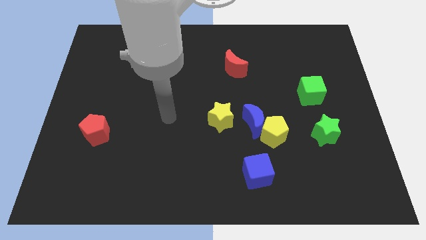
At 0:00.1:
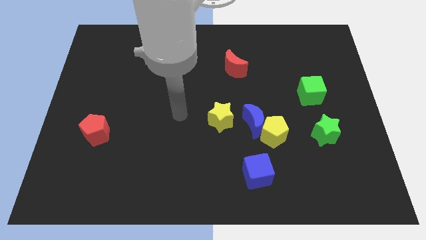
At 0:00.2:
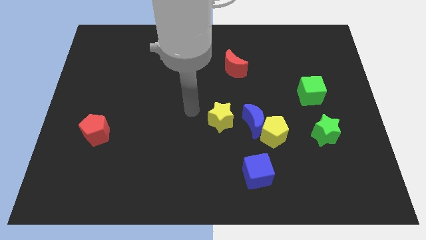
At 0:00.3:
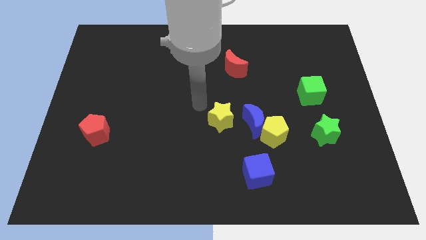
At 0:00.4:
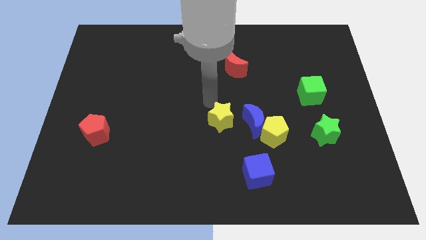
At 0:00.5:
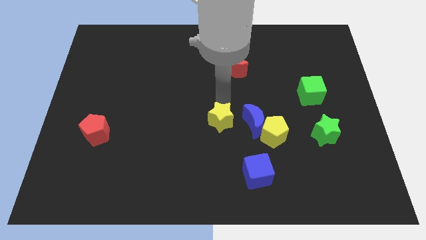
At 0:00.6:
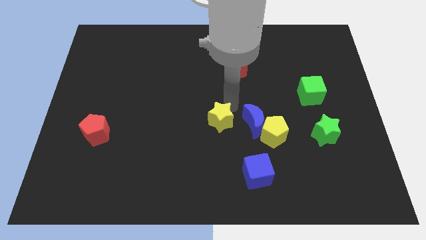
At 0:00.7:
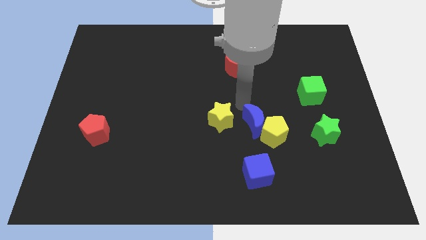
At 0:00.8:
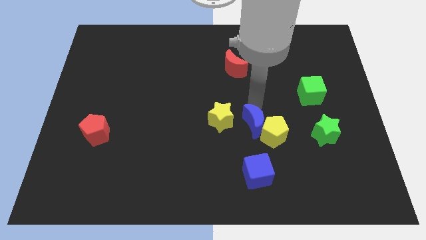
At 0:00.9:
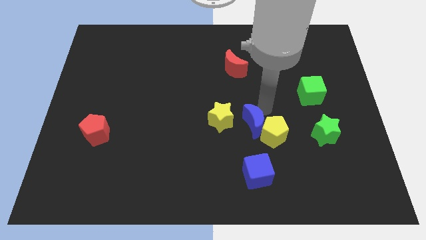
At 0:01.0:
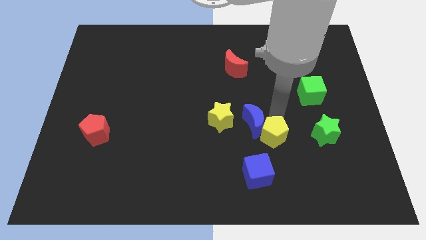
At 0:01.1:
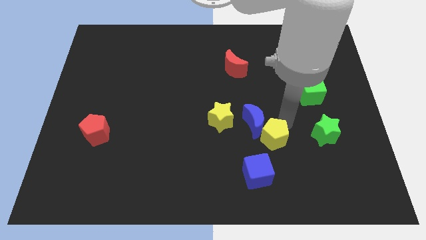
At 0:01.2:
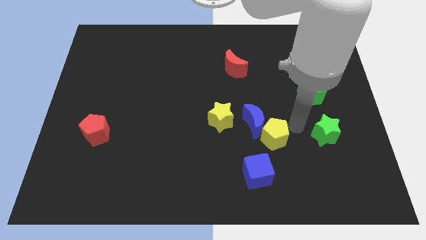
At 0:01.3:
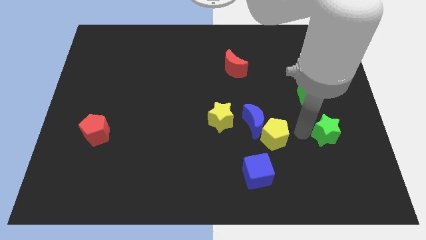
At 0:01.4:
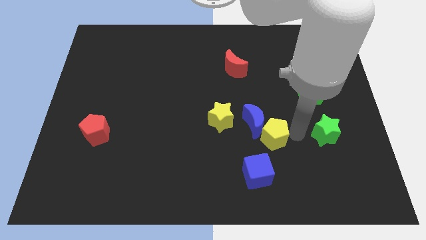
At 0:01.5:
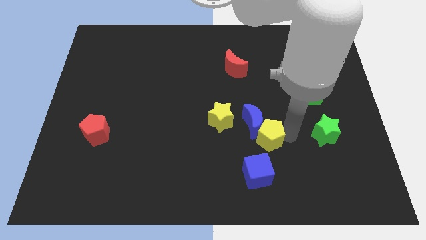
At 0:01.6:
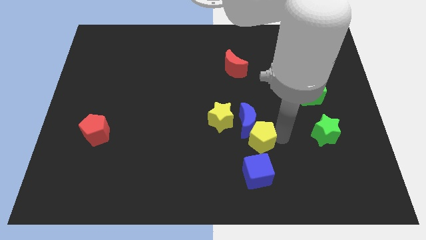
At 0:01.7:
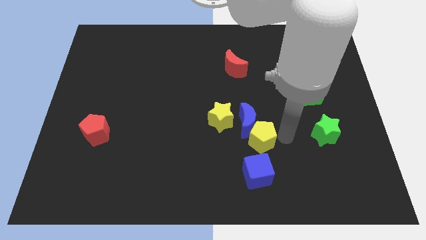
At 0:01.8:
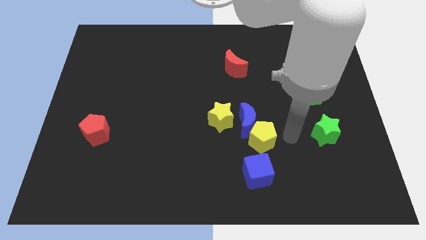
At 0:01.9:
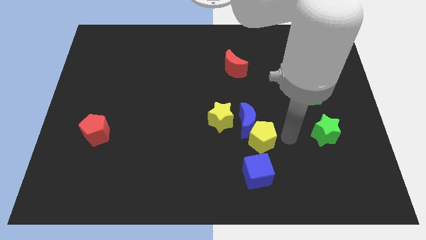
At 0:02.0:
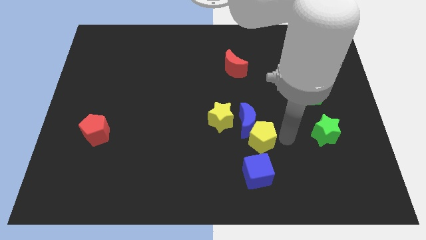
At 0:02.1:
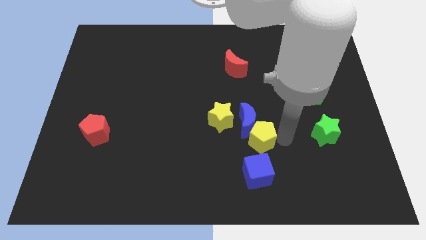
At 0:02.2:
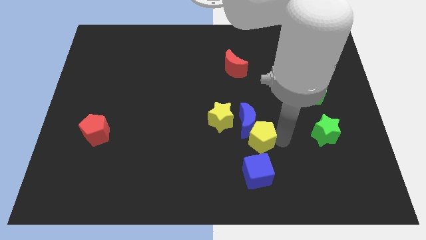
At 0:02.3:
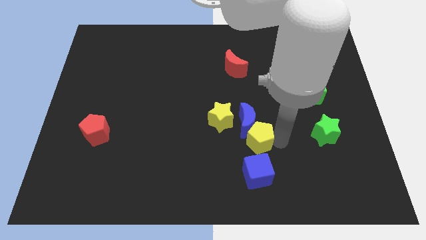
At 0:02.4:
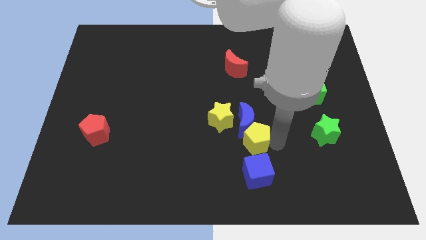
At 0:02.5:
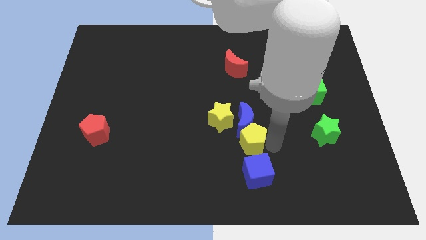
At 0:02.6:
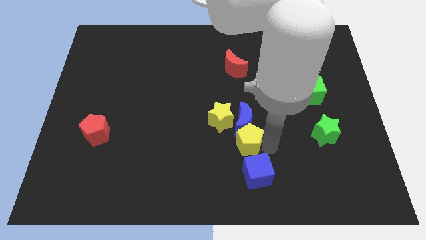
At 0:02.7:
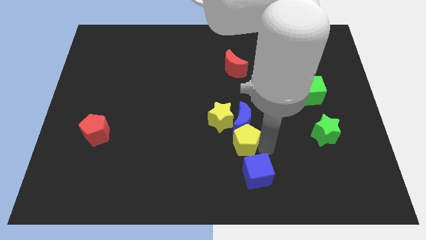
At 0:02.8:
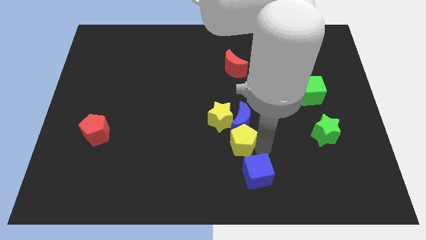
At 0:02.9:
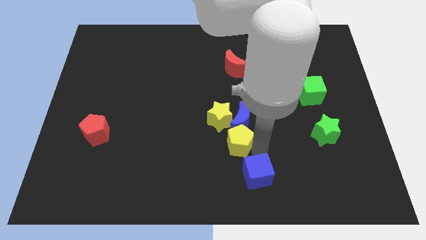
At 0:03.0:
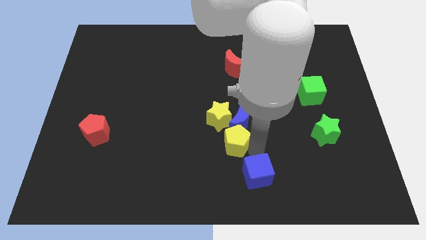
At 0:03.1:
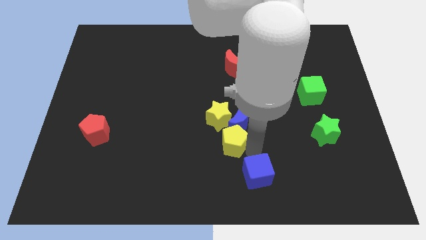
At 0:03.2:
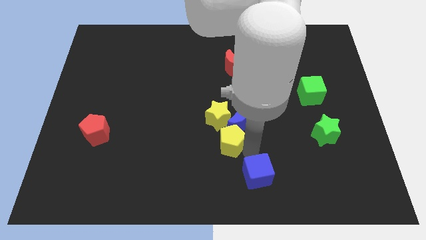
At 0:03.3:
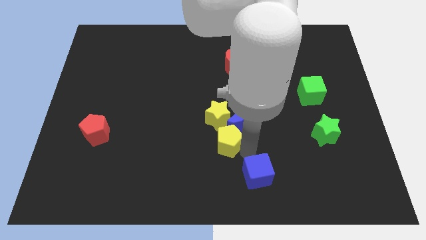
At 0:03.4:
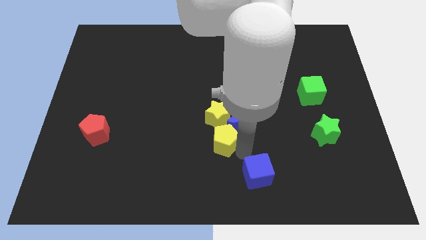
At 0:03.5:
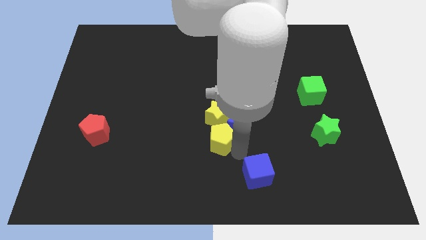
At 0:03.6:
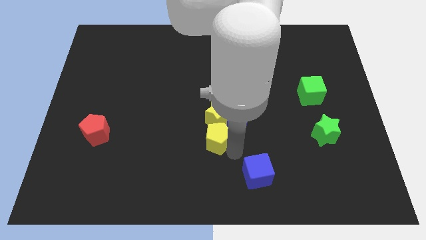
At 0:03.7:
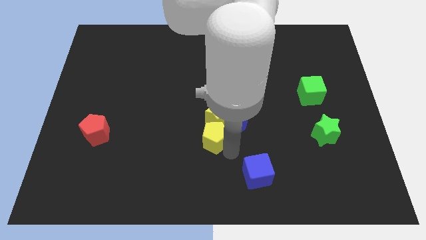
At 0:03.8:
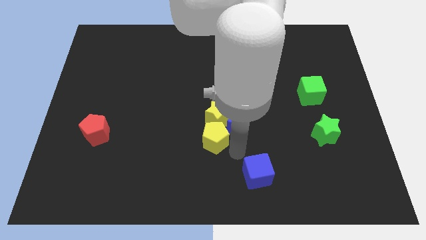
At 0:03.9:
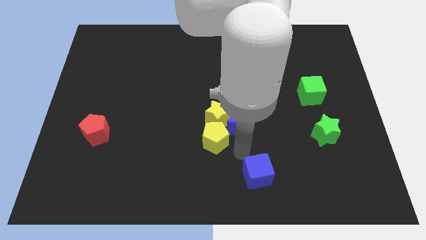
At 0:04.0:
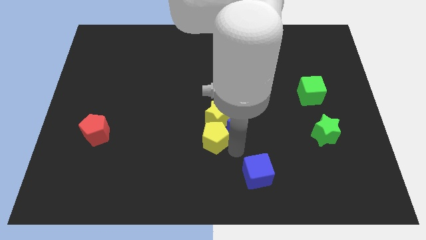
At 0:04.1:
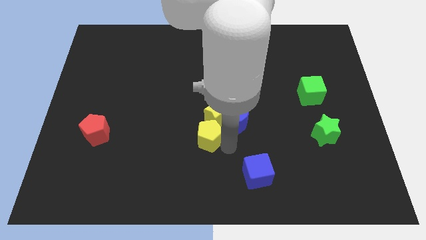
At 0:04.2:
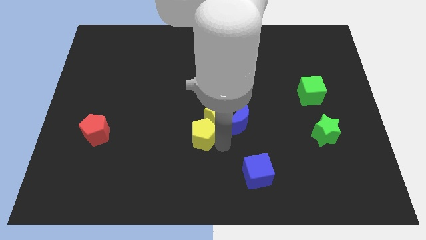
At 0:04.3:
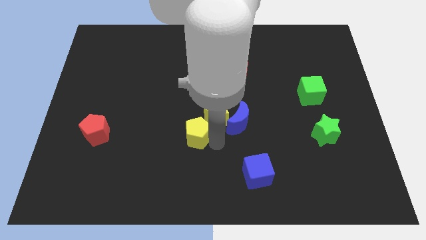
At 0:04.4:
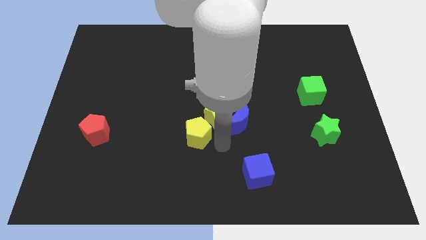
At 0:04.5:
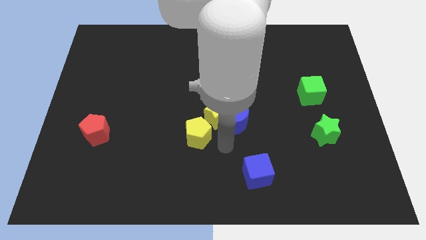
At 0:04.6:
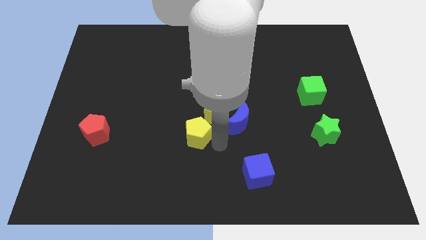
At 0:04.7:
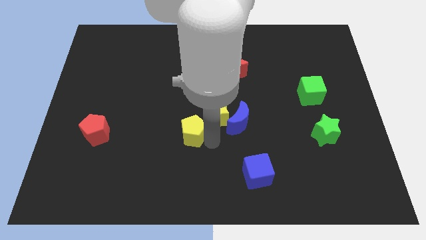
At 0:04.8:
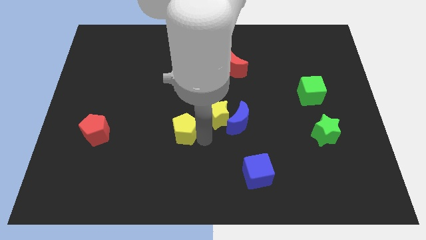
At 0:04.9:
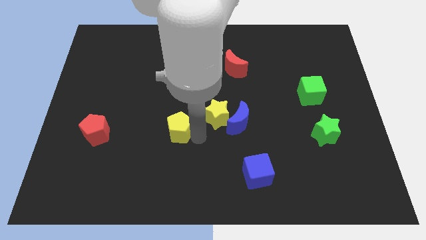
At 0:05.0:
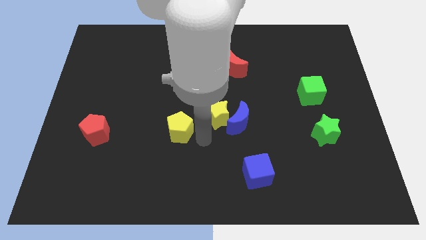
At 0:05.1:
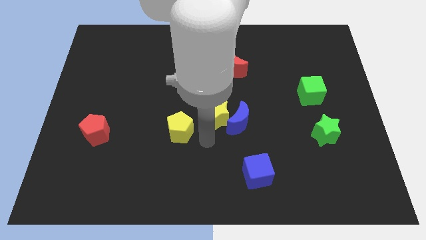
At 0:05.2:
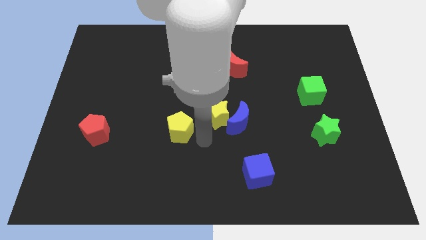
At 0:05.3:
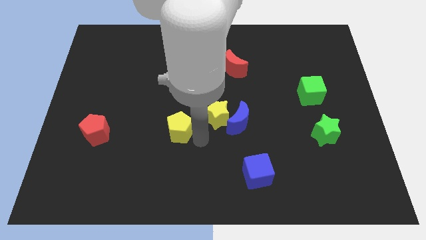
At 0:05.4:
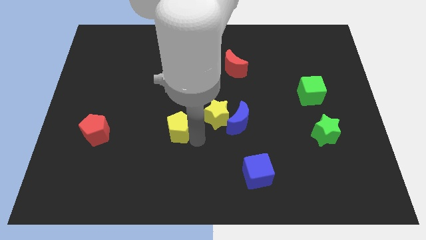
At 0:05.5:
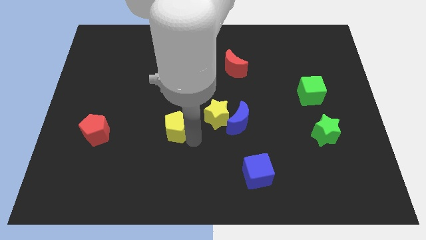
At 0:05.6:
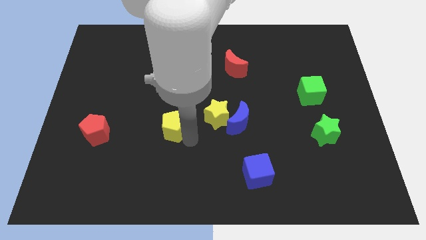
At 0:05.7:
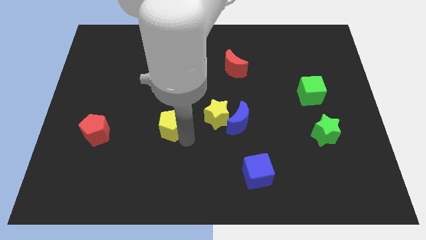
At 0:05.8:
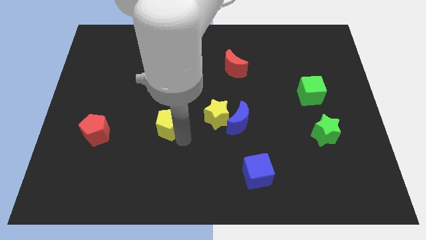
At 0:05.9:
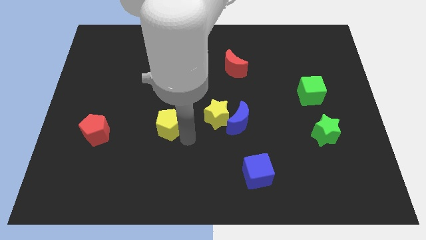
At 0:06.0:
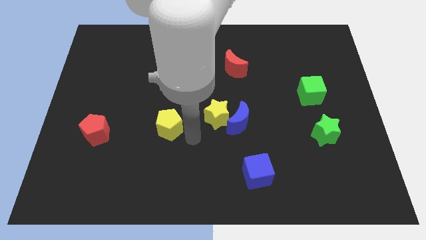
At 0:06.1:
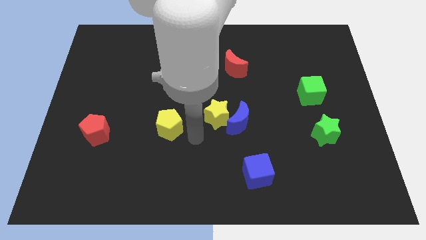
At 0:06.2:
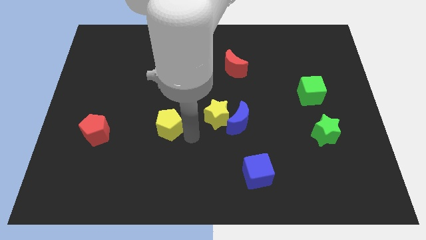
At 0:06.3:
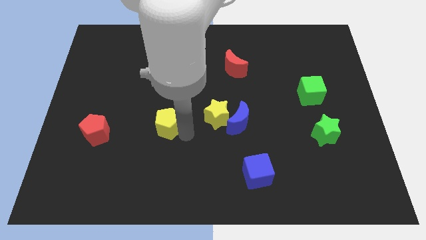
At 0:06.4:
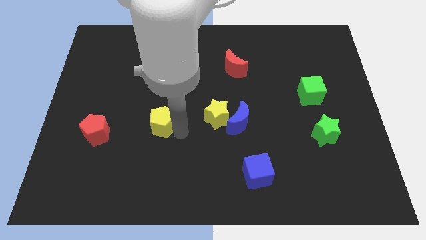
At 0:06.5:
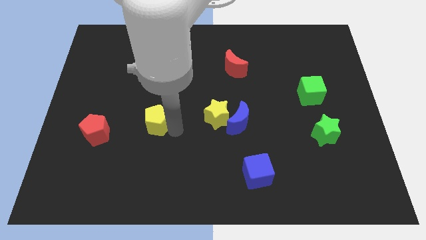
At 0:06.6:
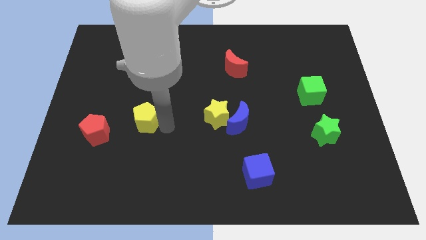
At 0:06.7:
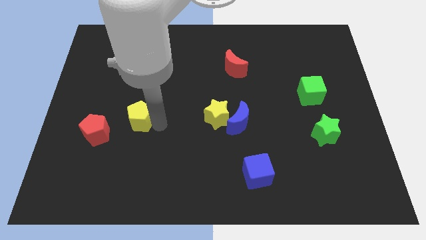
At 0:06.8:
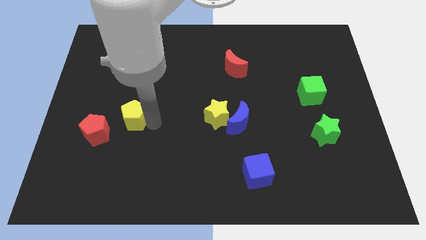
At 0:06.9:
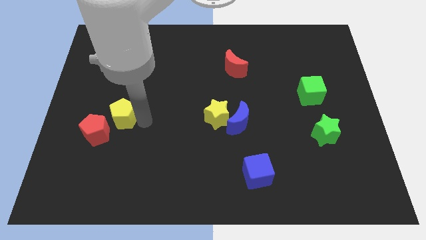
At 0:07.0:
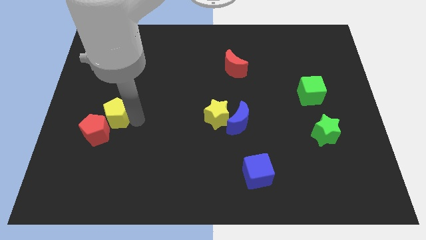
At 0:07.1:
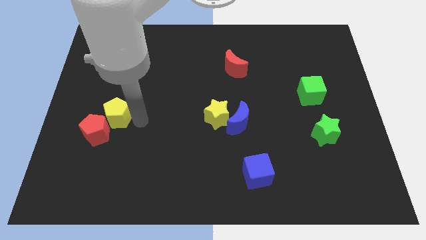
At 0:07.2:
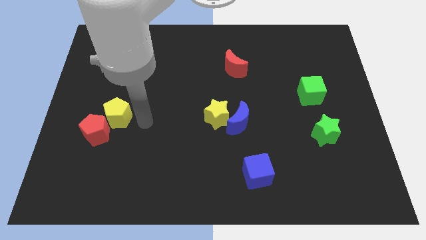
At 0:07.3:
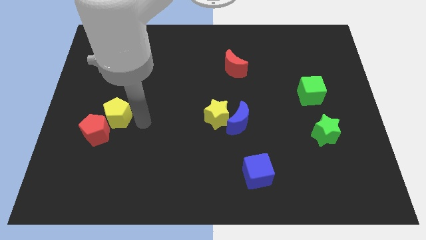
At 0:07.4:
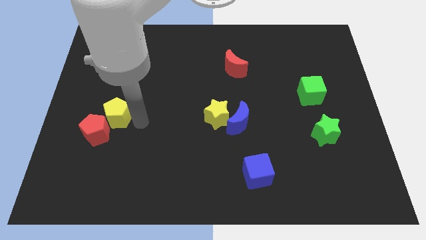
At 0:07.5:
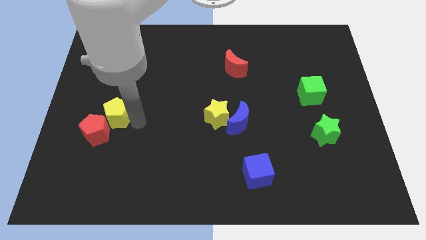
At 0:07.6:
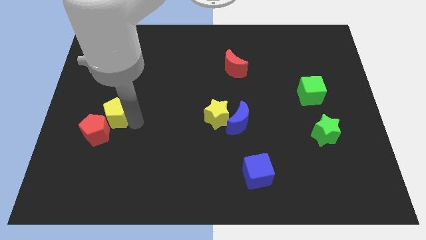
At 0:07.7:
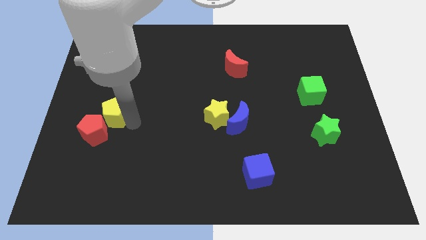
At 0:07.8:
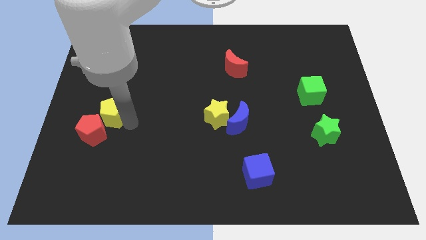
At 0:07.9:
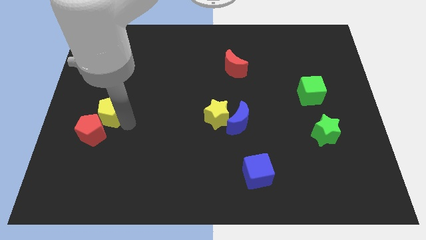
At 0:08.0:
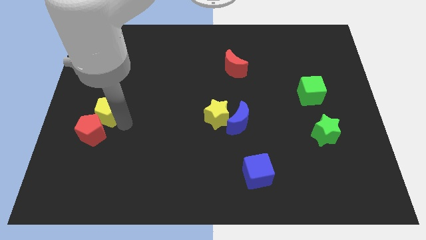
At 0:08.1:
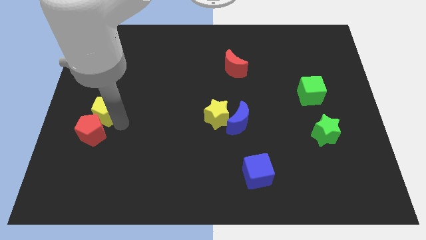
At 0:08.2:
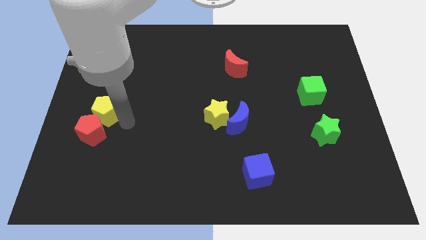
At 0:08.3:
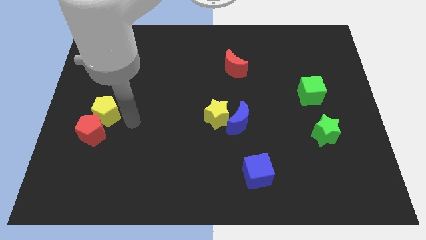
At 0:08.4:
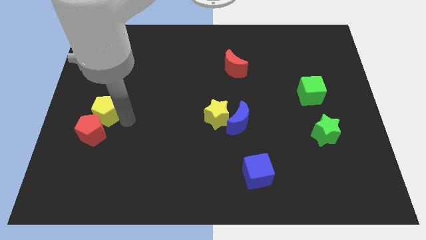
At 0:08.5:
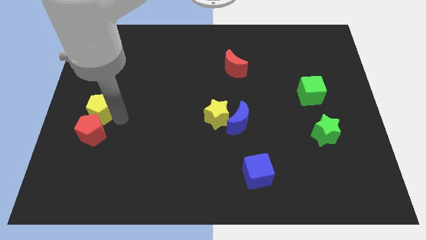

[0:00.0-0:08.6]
push the yellow pentagon to the left side of the board
